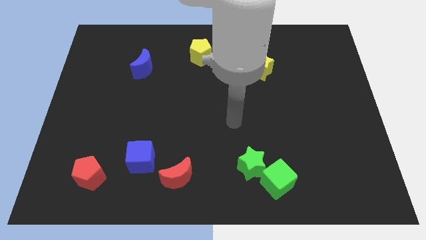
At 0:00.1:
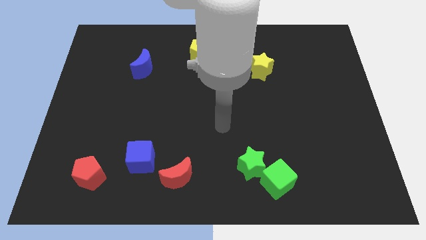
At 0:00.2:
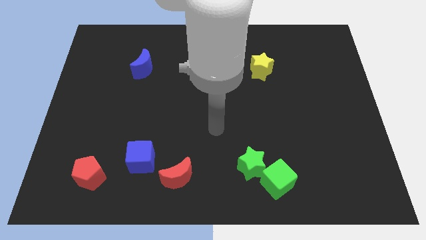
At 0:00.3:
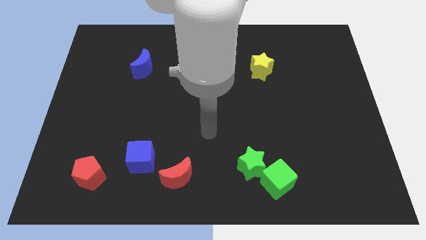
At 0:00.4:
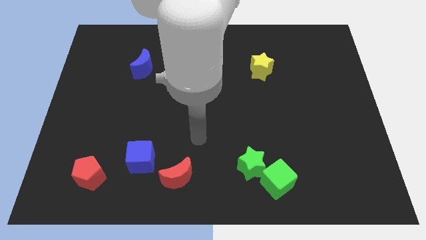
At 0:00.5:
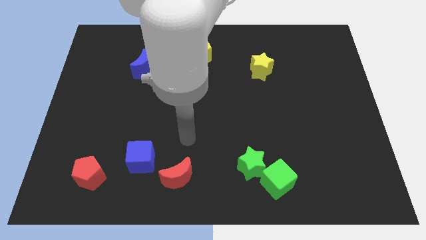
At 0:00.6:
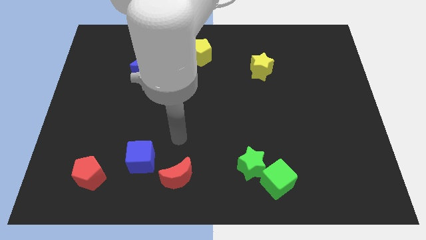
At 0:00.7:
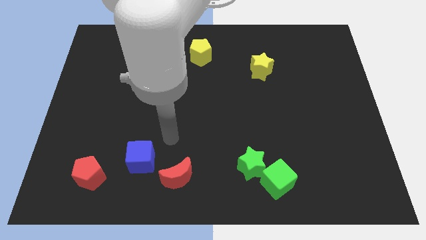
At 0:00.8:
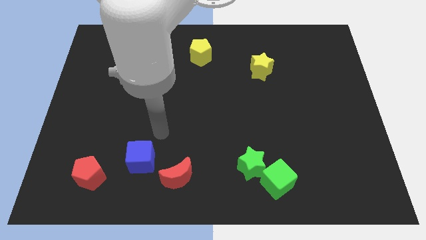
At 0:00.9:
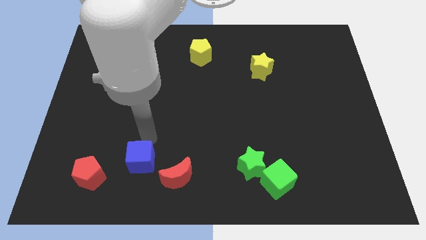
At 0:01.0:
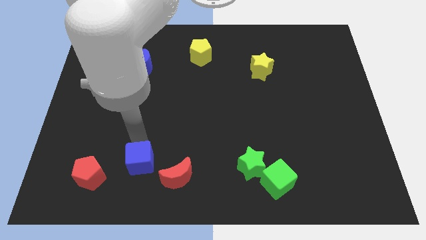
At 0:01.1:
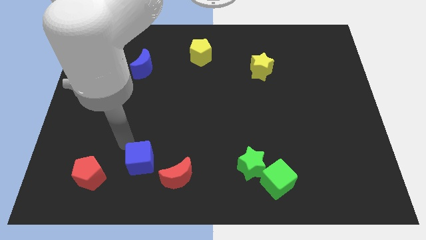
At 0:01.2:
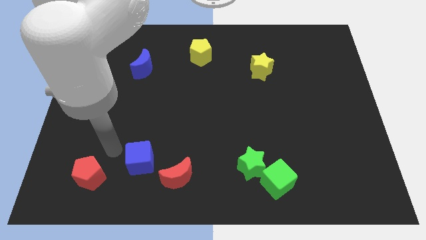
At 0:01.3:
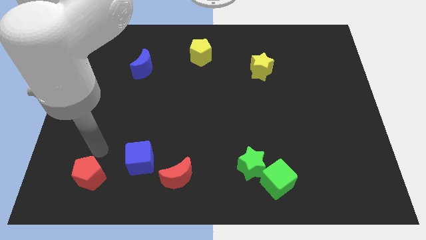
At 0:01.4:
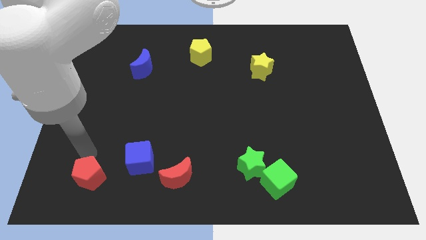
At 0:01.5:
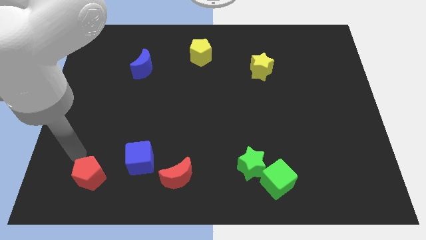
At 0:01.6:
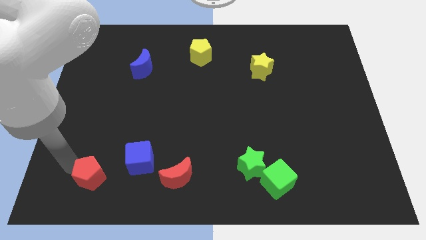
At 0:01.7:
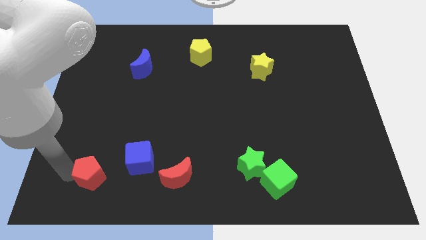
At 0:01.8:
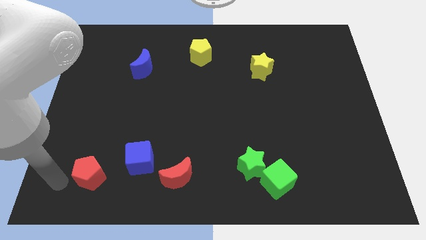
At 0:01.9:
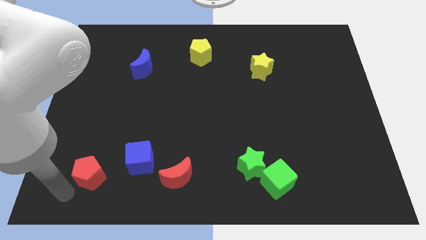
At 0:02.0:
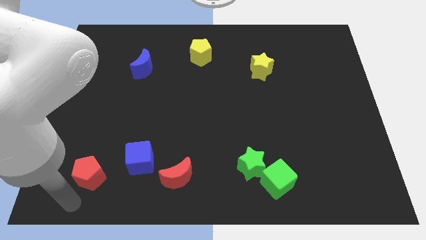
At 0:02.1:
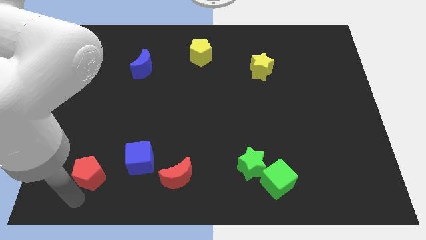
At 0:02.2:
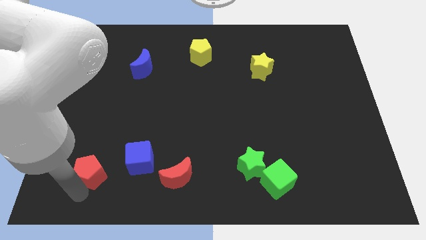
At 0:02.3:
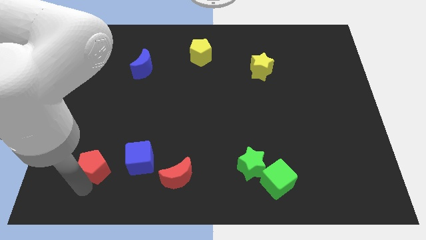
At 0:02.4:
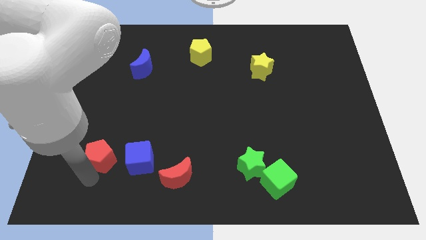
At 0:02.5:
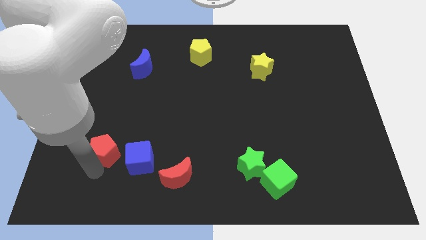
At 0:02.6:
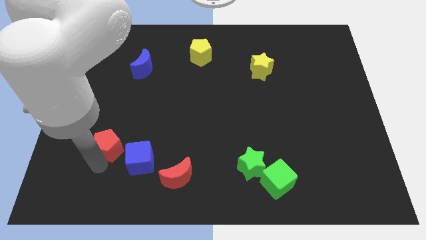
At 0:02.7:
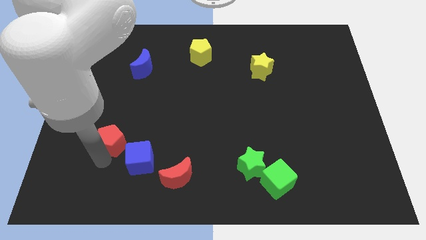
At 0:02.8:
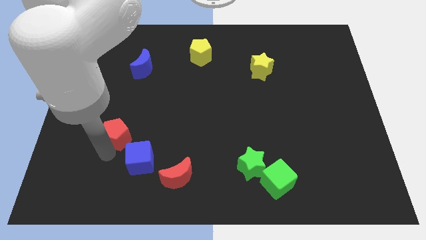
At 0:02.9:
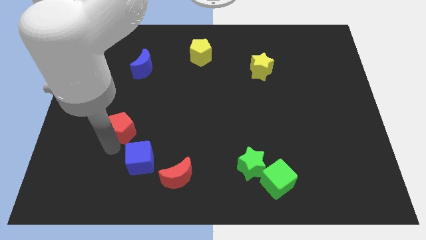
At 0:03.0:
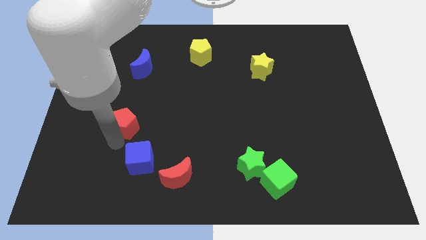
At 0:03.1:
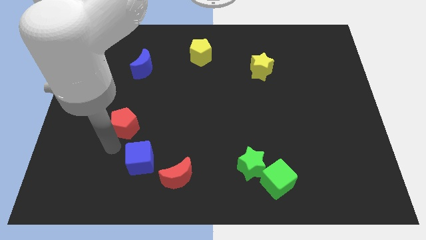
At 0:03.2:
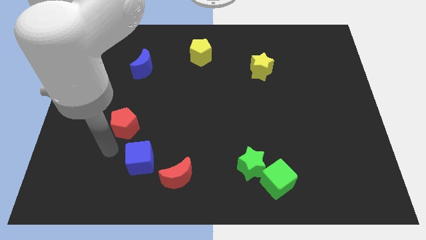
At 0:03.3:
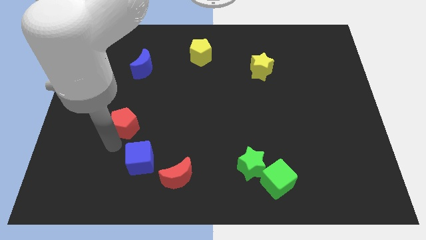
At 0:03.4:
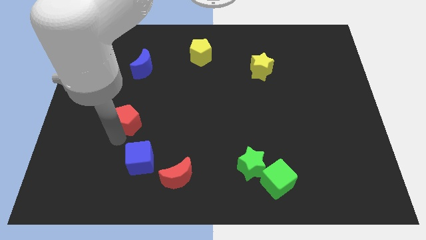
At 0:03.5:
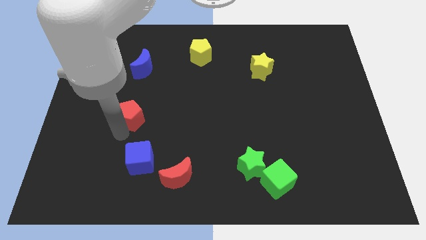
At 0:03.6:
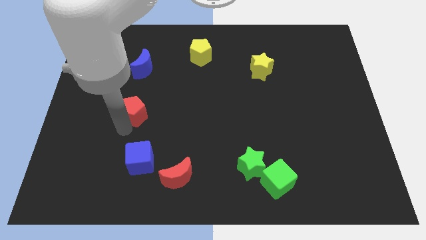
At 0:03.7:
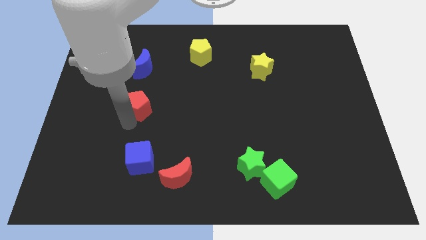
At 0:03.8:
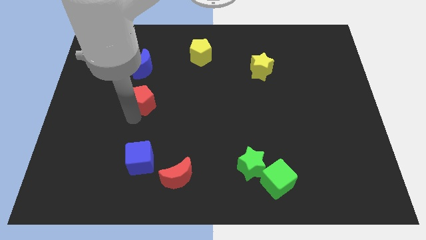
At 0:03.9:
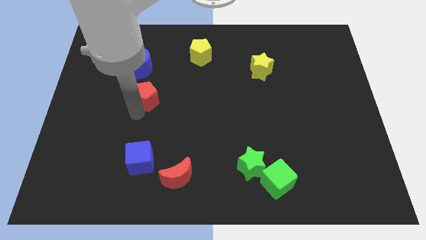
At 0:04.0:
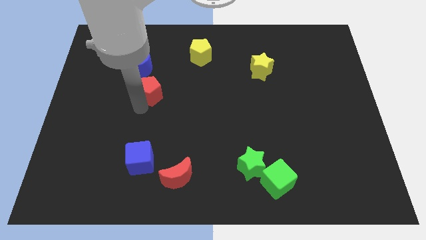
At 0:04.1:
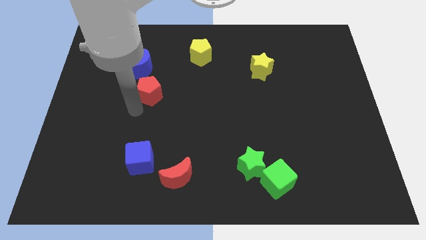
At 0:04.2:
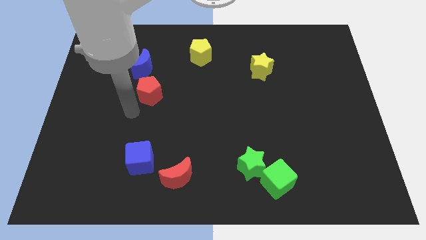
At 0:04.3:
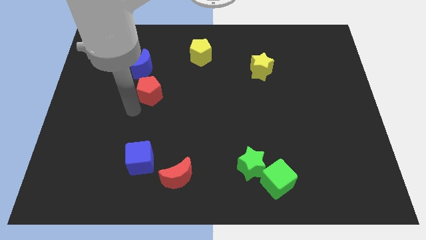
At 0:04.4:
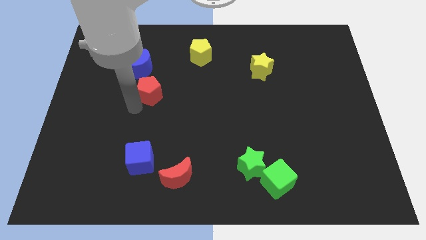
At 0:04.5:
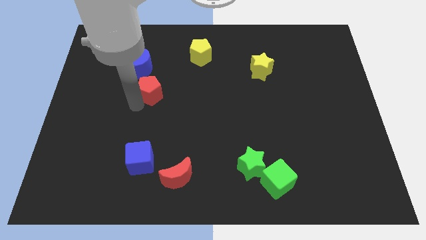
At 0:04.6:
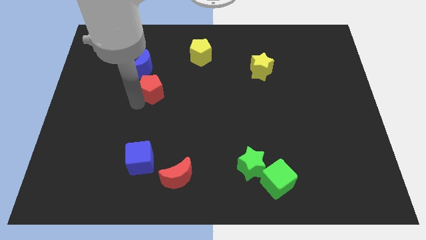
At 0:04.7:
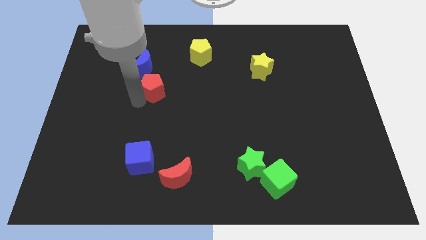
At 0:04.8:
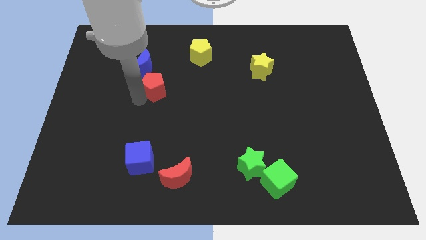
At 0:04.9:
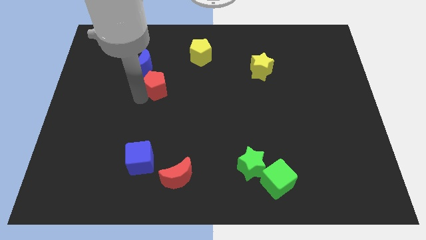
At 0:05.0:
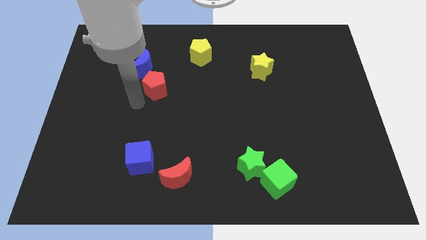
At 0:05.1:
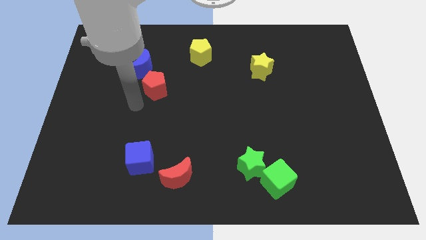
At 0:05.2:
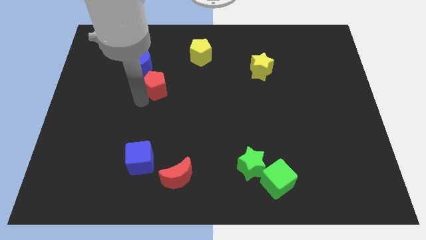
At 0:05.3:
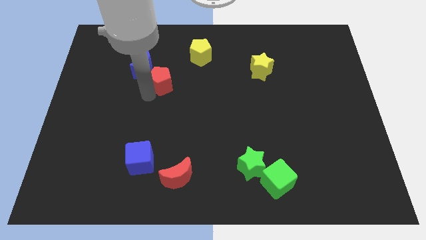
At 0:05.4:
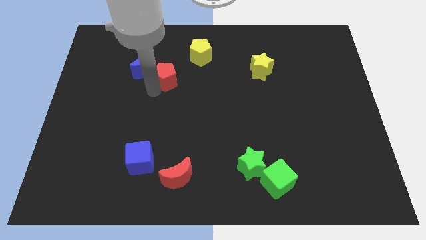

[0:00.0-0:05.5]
slide the red pentagon diagonally down and to the left of the yellow pentagon

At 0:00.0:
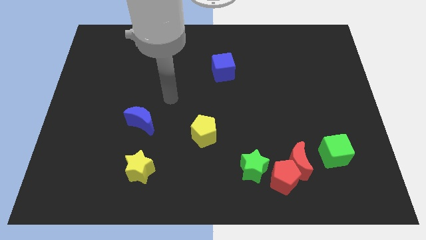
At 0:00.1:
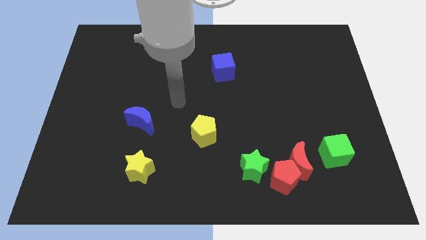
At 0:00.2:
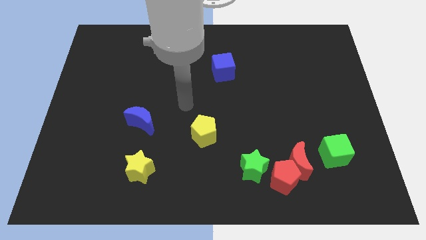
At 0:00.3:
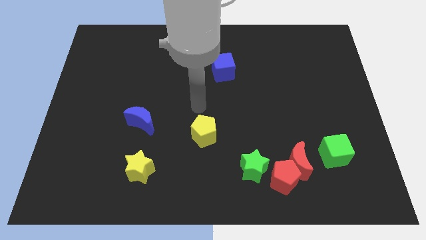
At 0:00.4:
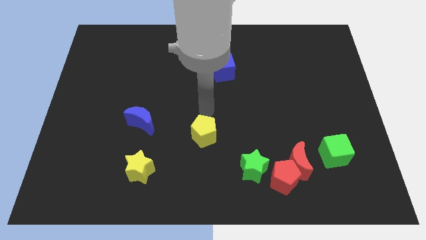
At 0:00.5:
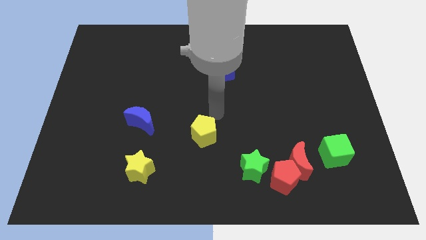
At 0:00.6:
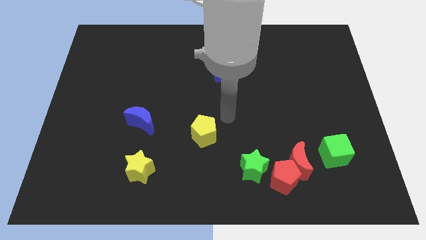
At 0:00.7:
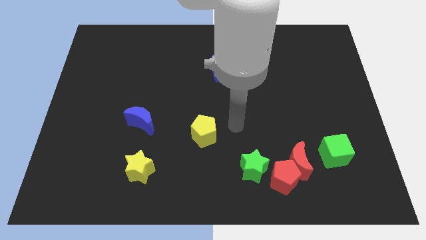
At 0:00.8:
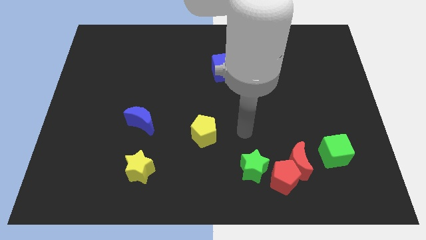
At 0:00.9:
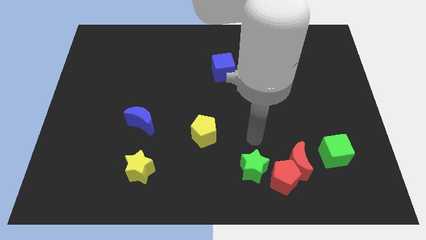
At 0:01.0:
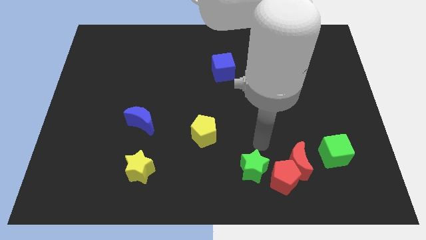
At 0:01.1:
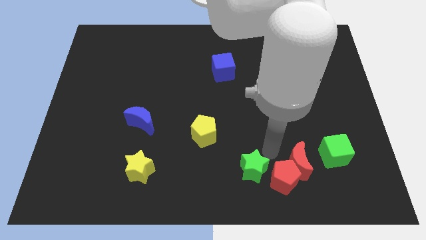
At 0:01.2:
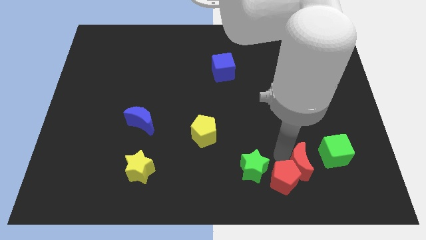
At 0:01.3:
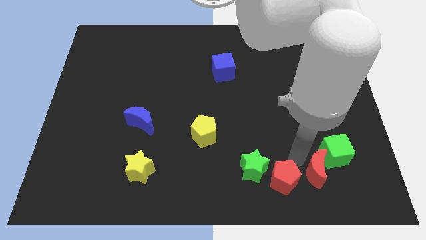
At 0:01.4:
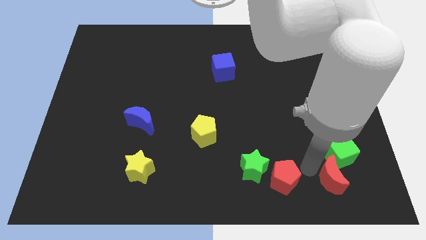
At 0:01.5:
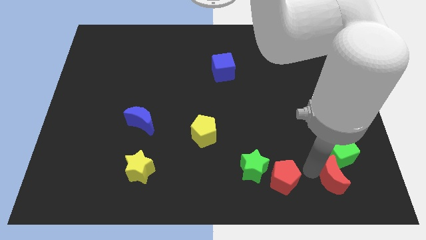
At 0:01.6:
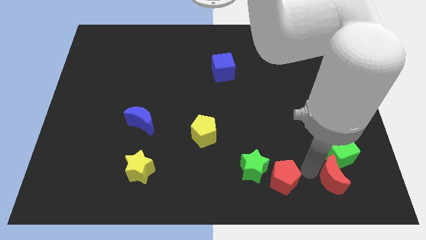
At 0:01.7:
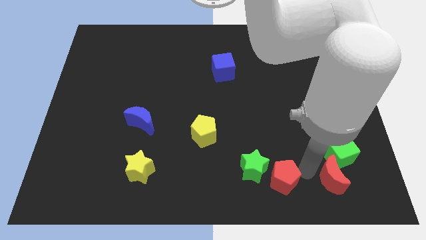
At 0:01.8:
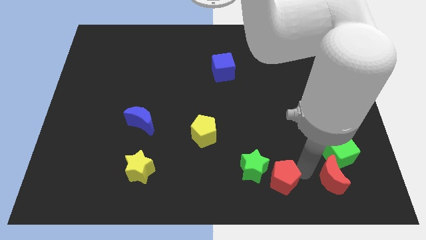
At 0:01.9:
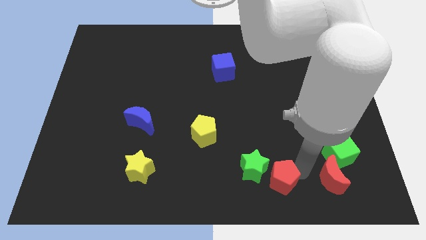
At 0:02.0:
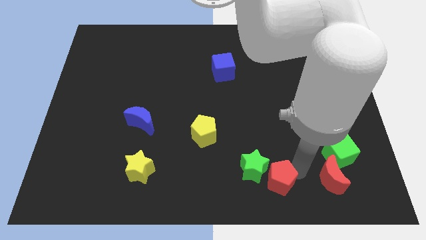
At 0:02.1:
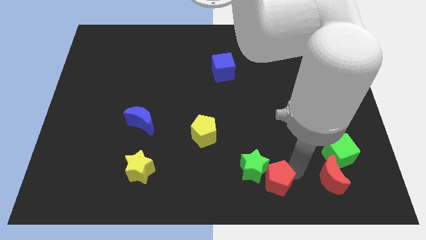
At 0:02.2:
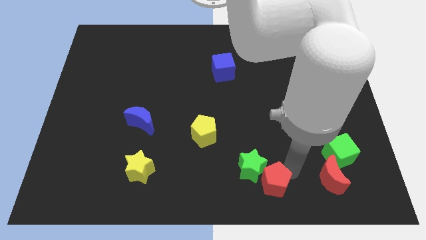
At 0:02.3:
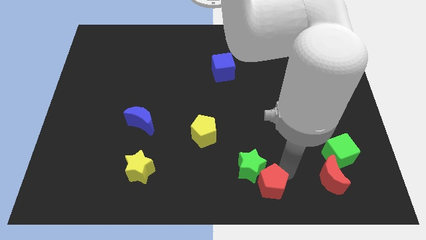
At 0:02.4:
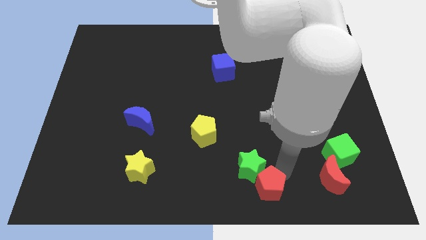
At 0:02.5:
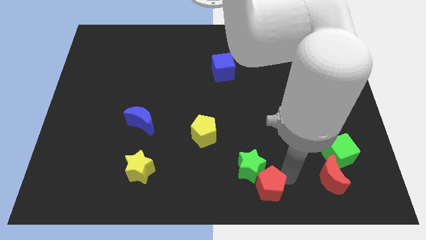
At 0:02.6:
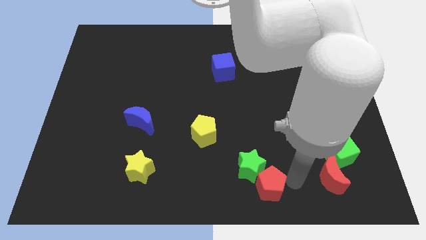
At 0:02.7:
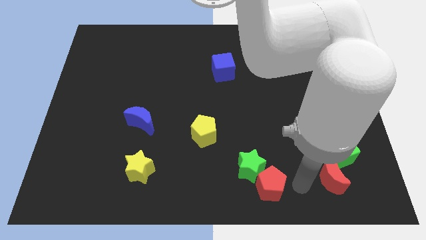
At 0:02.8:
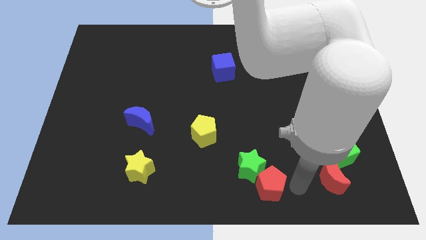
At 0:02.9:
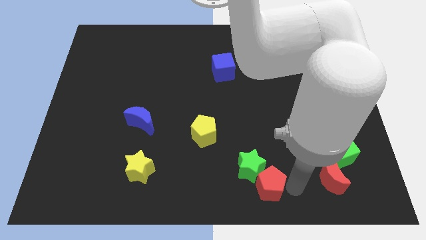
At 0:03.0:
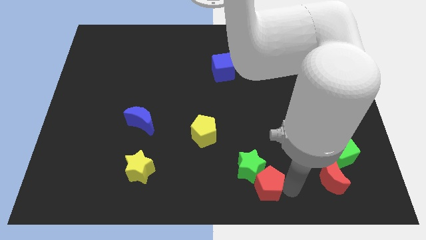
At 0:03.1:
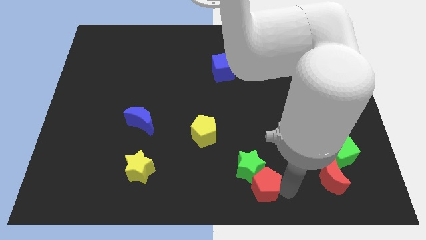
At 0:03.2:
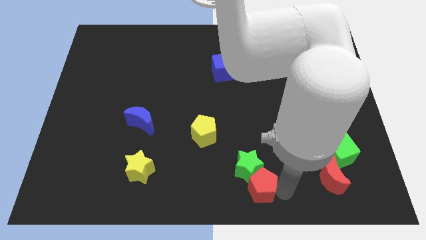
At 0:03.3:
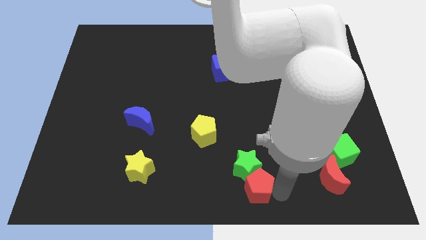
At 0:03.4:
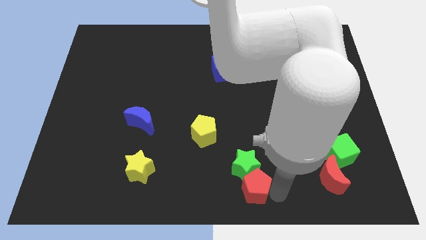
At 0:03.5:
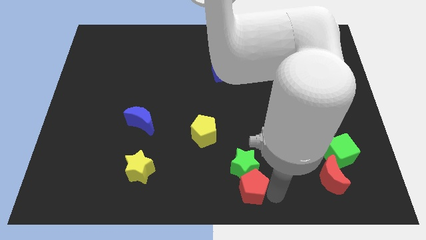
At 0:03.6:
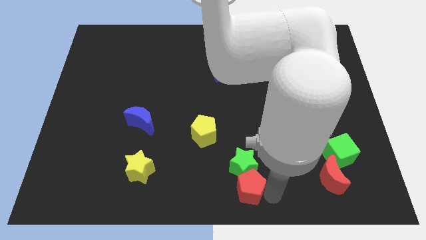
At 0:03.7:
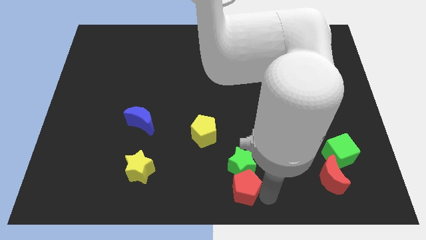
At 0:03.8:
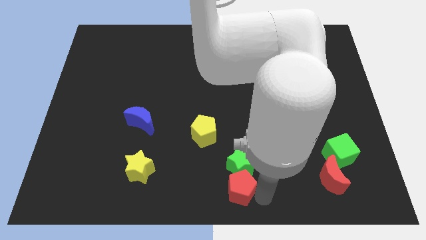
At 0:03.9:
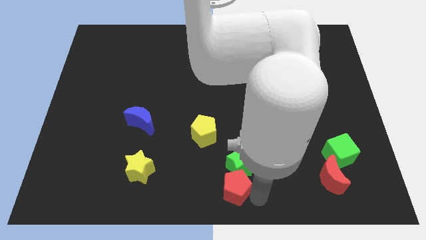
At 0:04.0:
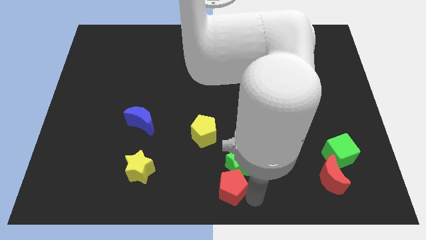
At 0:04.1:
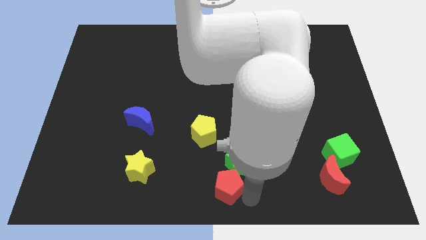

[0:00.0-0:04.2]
push the red pentagon to the bottom side of the yellow pentagon
